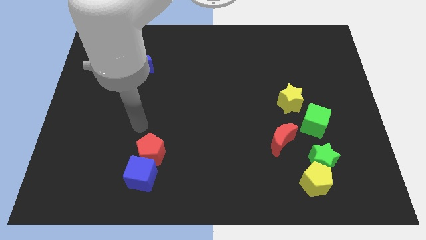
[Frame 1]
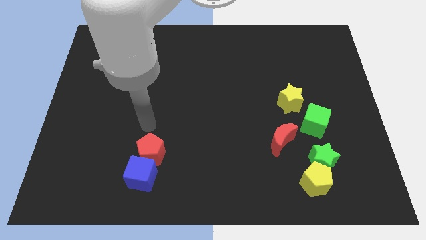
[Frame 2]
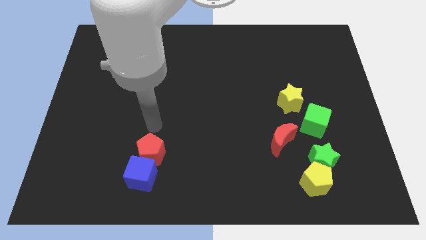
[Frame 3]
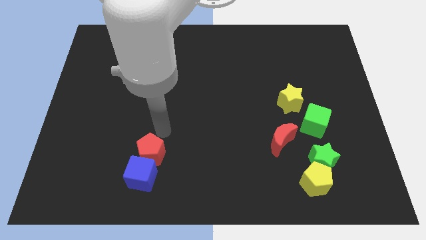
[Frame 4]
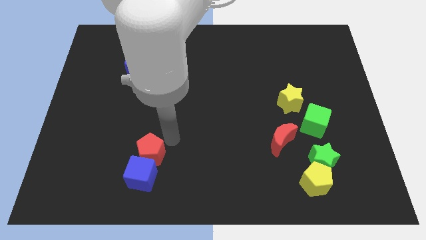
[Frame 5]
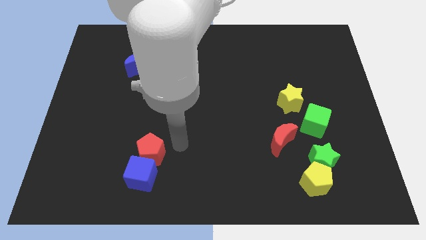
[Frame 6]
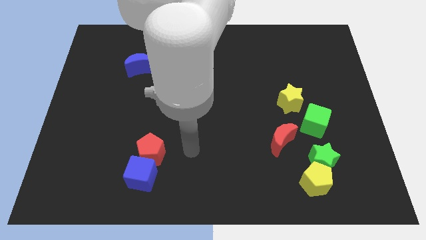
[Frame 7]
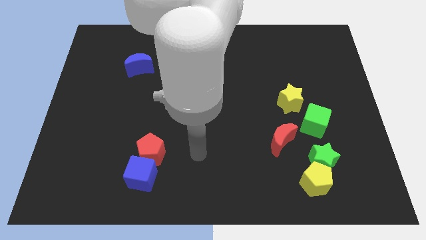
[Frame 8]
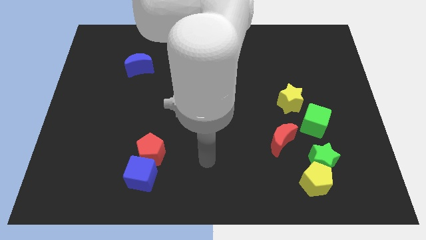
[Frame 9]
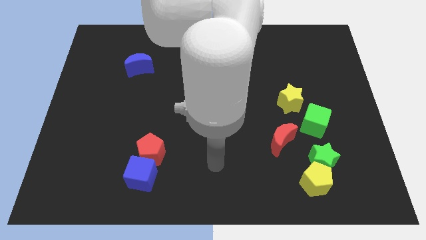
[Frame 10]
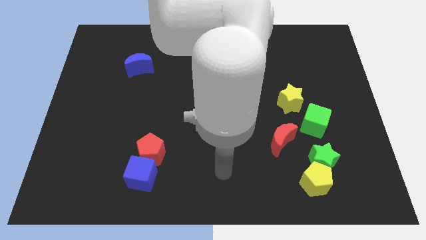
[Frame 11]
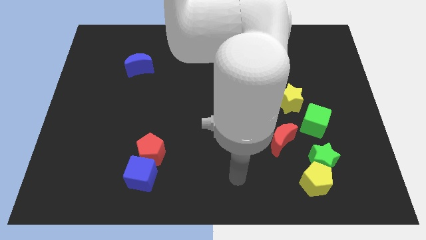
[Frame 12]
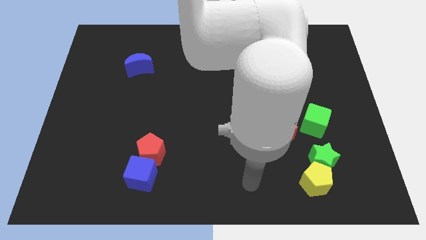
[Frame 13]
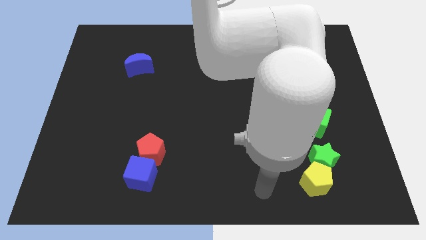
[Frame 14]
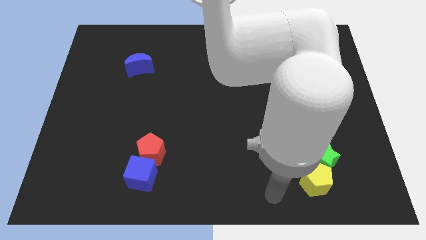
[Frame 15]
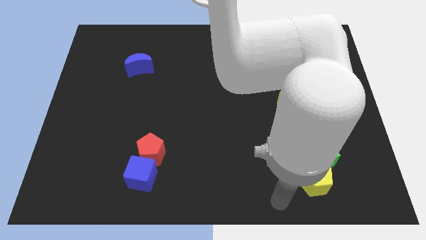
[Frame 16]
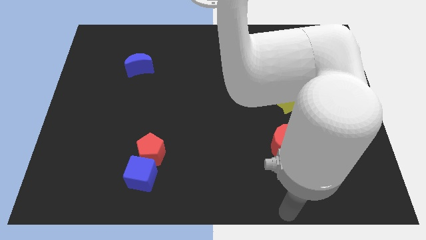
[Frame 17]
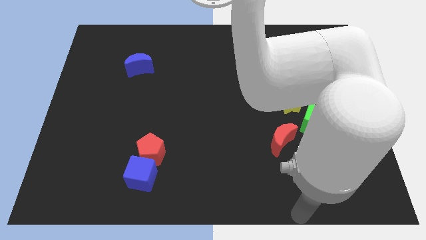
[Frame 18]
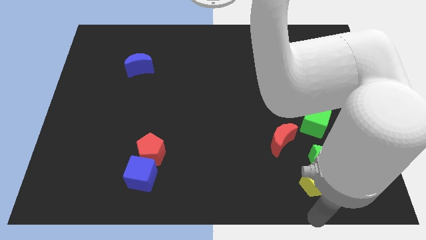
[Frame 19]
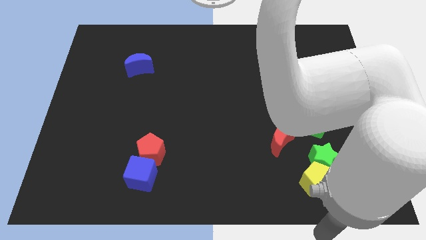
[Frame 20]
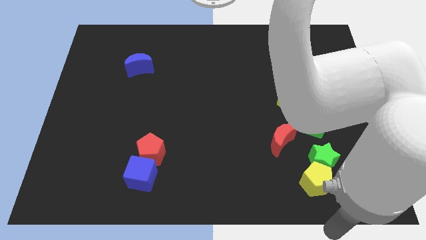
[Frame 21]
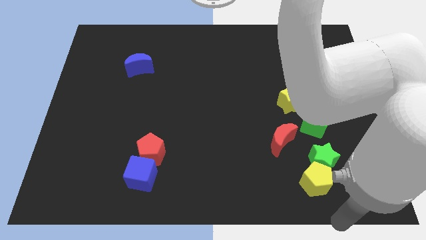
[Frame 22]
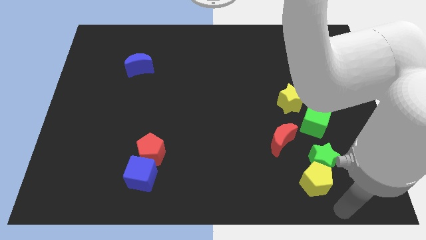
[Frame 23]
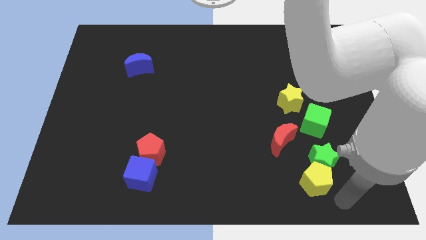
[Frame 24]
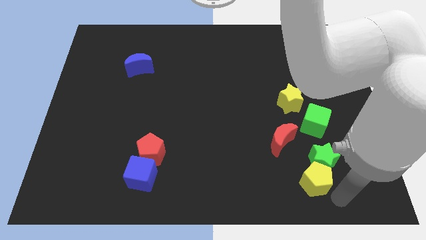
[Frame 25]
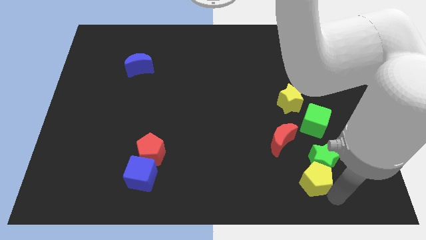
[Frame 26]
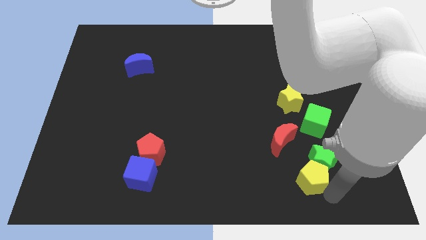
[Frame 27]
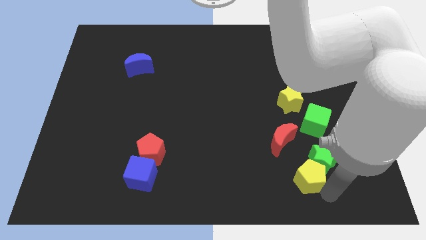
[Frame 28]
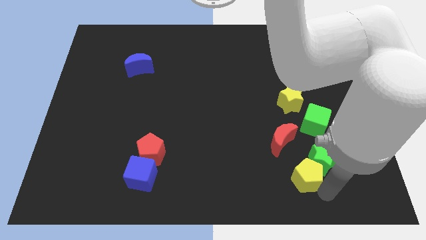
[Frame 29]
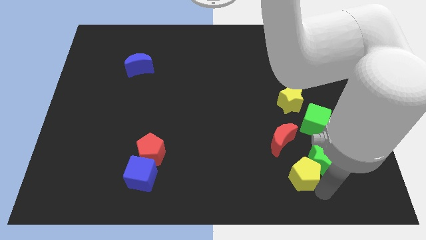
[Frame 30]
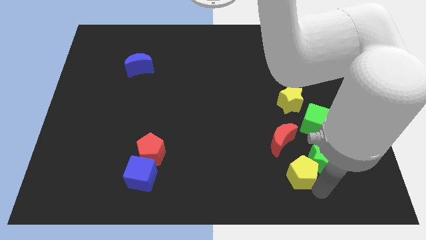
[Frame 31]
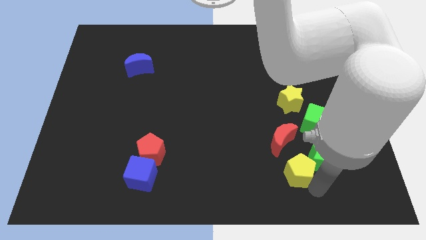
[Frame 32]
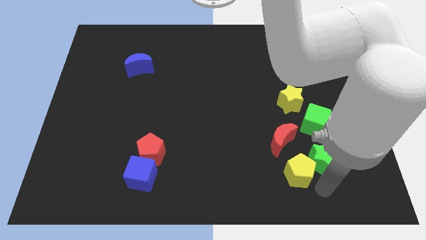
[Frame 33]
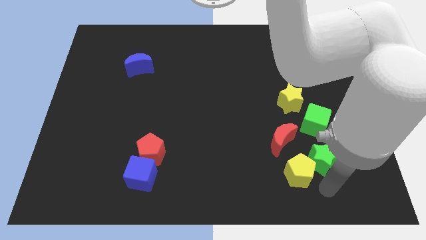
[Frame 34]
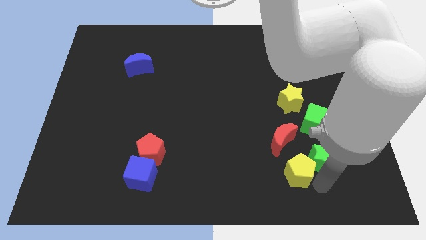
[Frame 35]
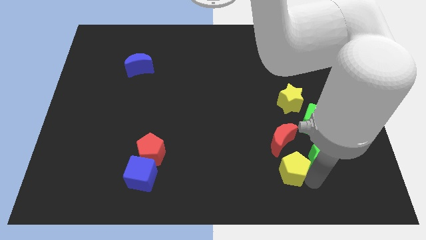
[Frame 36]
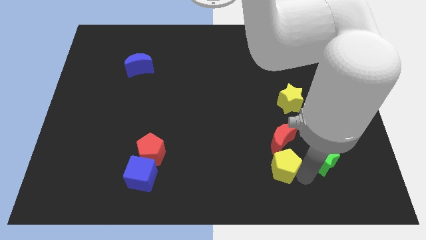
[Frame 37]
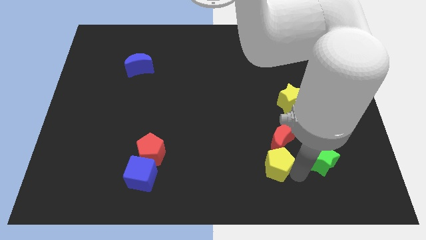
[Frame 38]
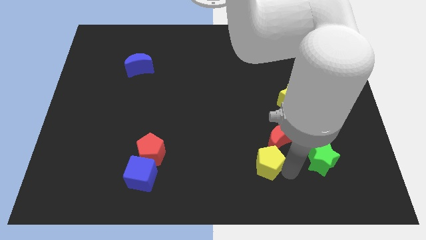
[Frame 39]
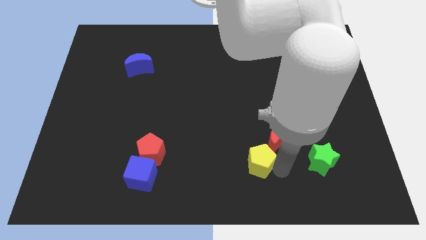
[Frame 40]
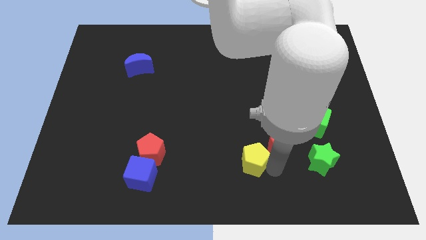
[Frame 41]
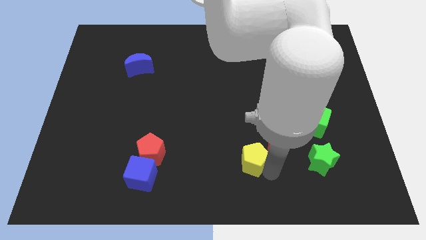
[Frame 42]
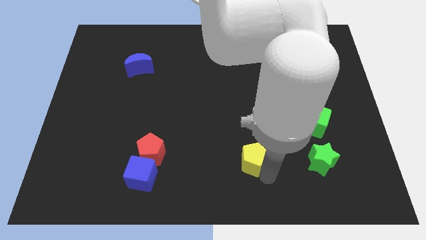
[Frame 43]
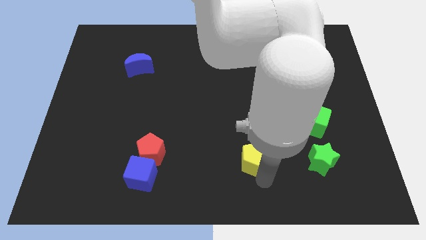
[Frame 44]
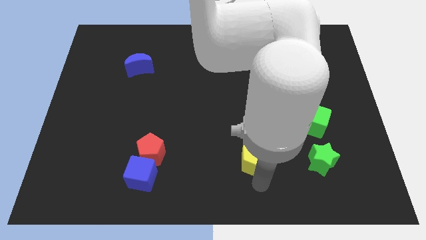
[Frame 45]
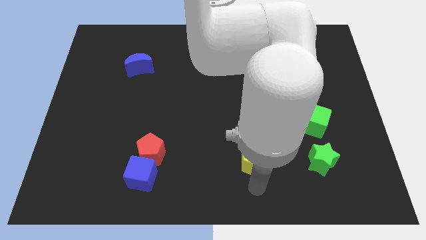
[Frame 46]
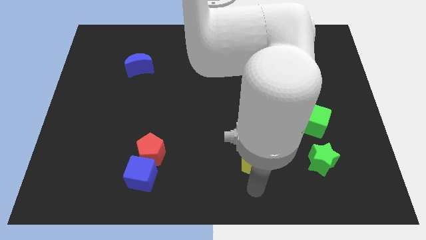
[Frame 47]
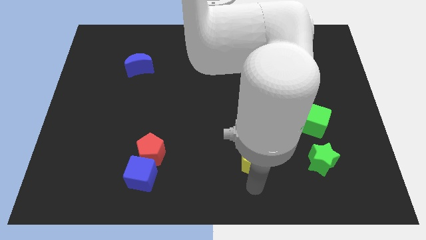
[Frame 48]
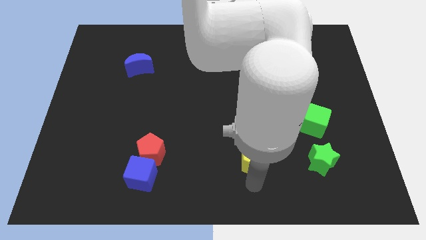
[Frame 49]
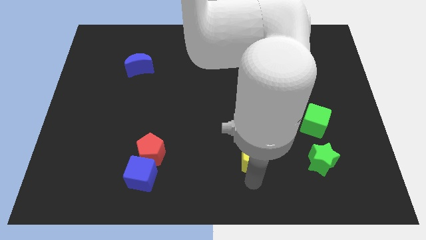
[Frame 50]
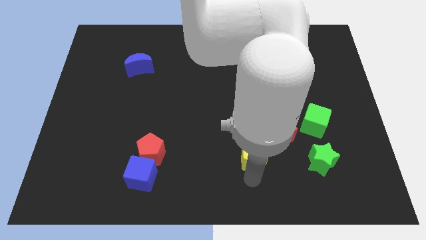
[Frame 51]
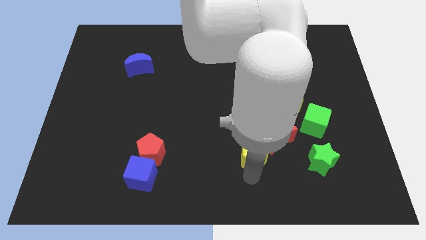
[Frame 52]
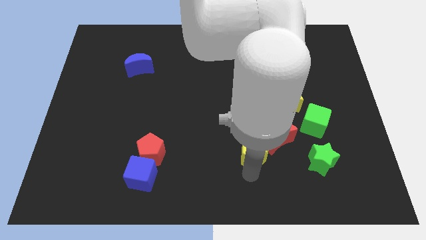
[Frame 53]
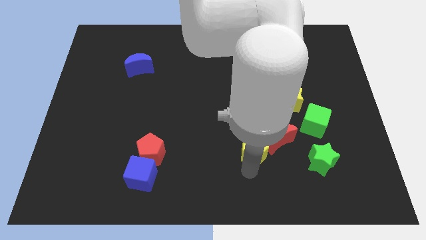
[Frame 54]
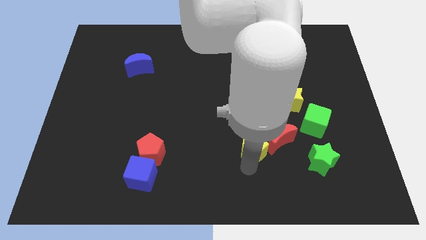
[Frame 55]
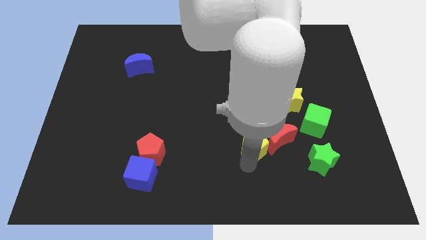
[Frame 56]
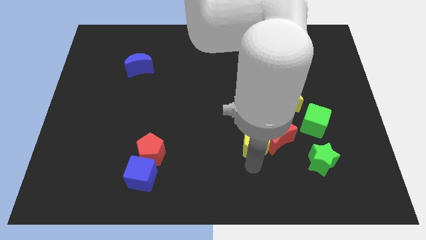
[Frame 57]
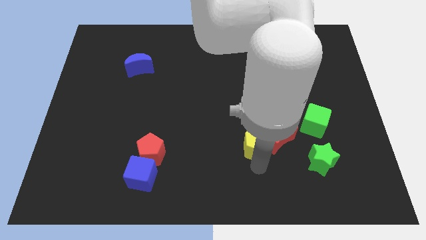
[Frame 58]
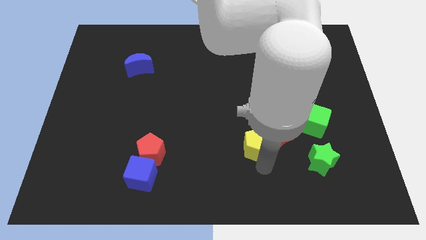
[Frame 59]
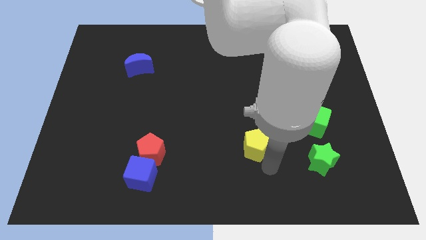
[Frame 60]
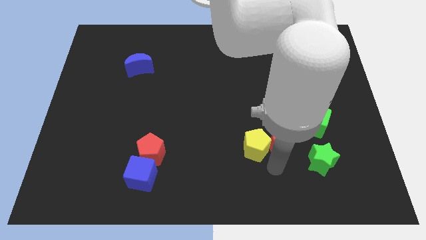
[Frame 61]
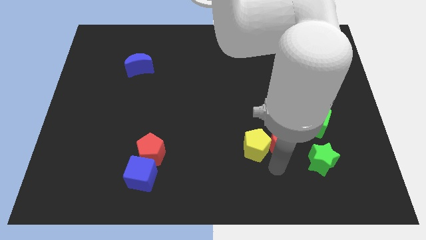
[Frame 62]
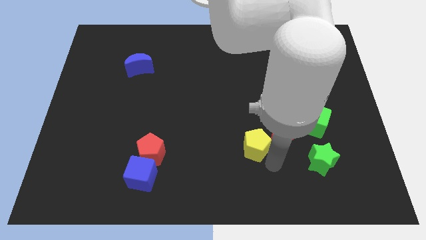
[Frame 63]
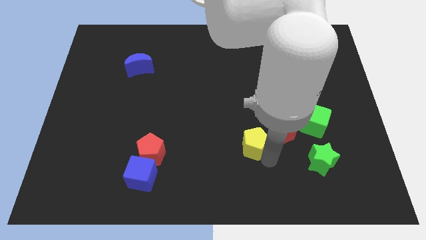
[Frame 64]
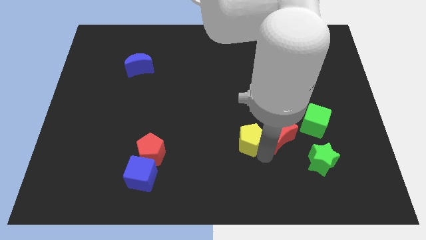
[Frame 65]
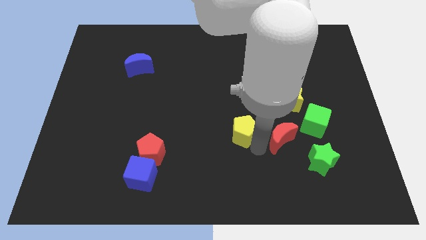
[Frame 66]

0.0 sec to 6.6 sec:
put the yellow pentagon to the middle
